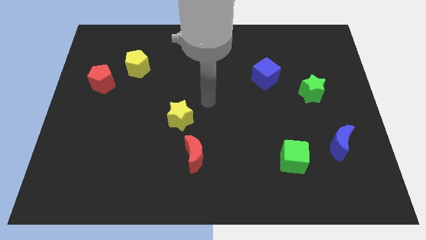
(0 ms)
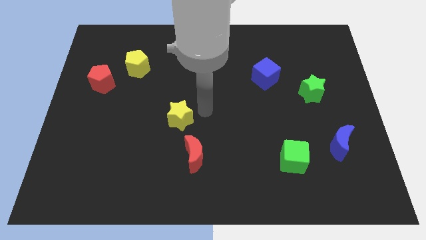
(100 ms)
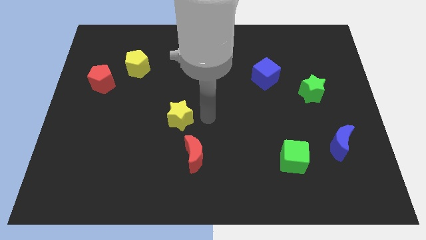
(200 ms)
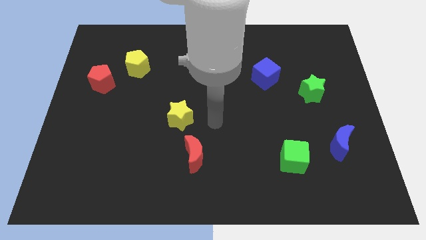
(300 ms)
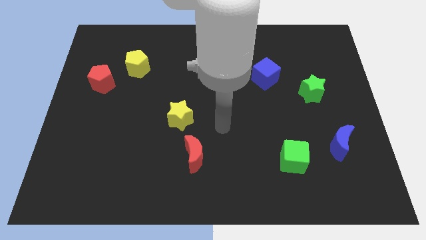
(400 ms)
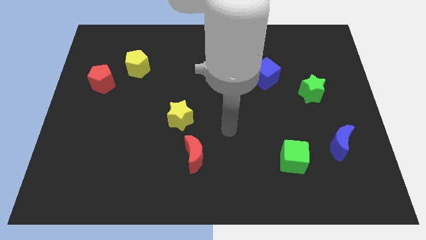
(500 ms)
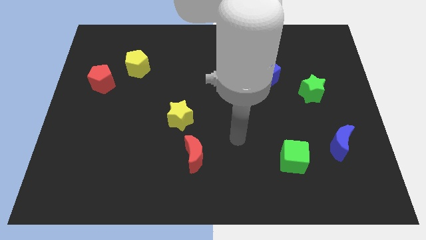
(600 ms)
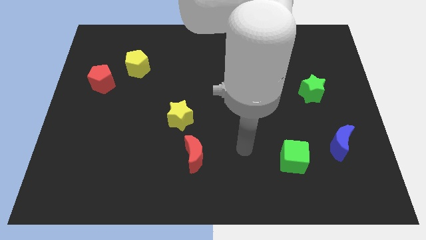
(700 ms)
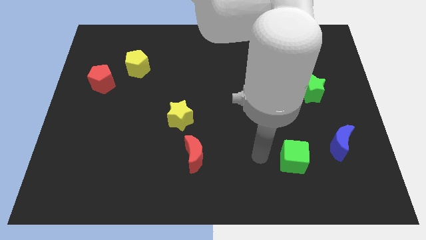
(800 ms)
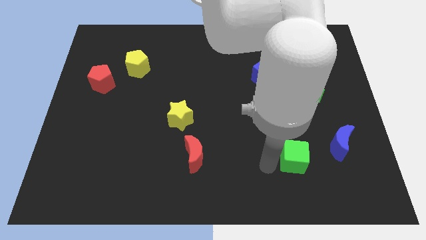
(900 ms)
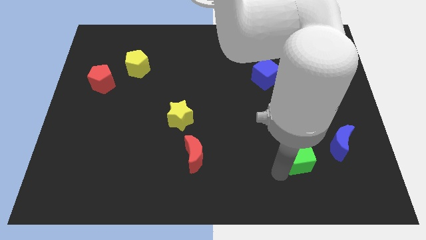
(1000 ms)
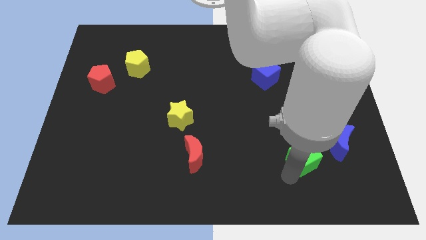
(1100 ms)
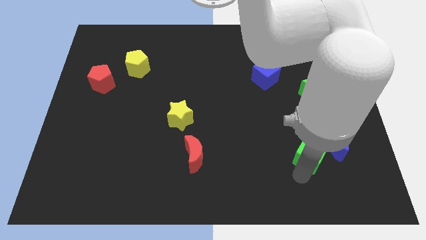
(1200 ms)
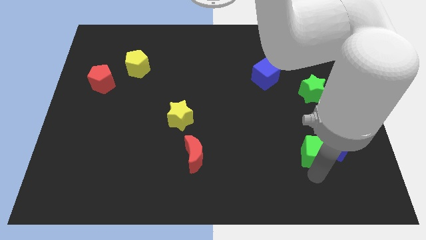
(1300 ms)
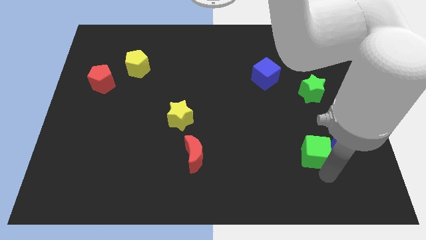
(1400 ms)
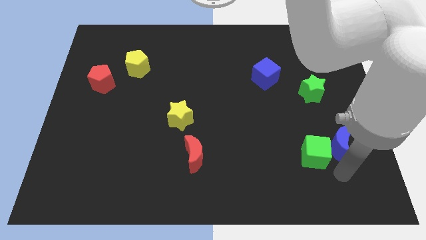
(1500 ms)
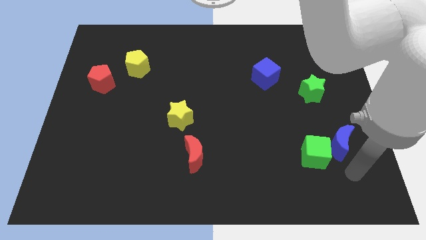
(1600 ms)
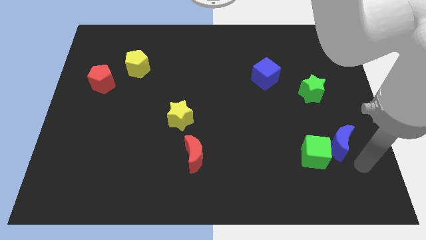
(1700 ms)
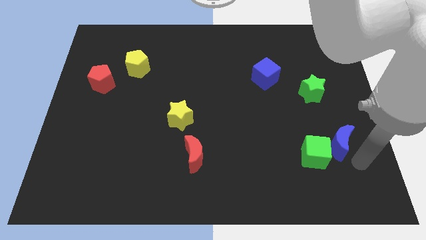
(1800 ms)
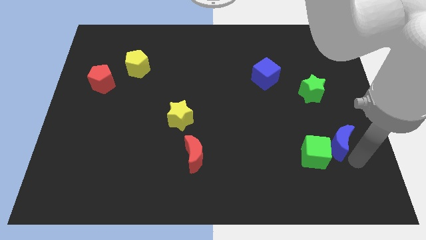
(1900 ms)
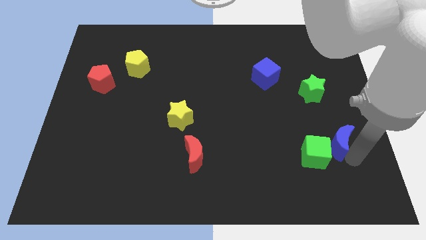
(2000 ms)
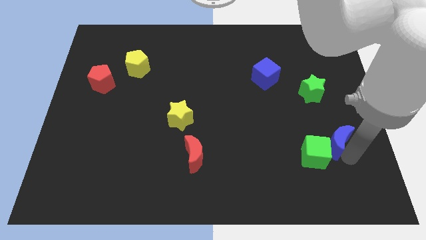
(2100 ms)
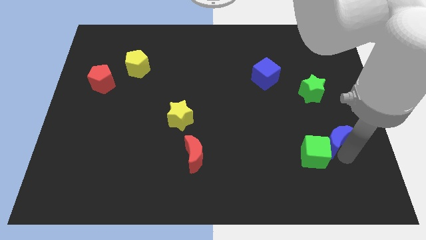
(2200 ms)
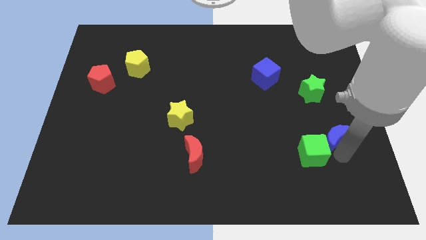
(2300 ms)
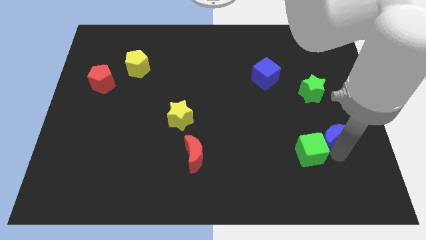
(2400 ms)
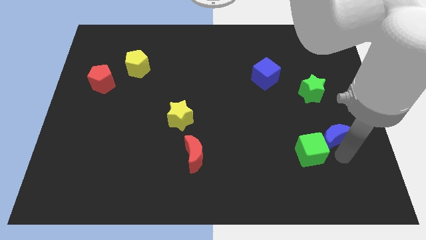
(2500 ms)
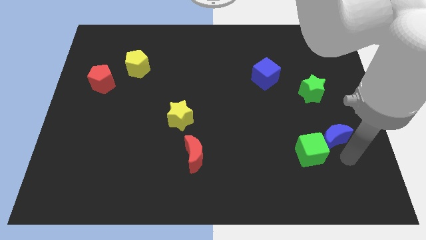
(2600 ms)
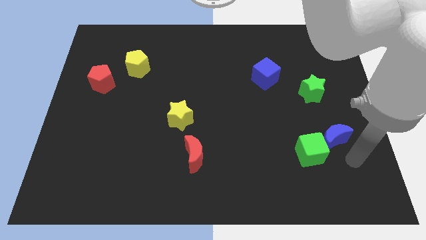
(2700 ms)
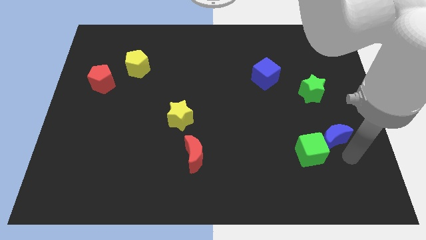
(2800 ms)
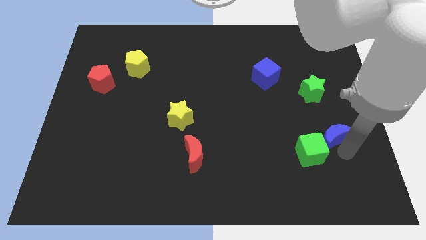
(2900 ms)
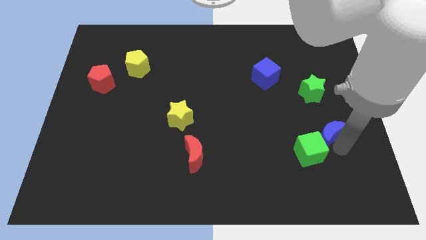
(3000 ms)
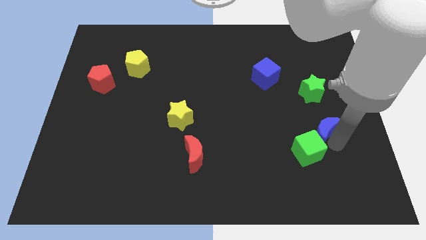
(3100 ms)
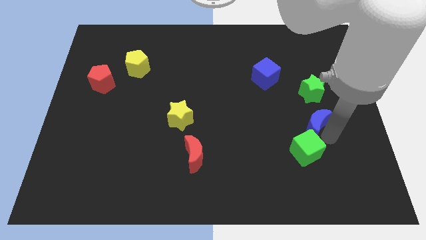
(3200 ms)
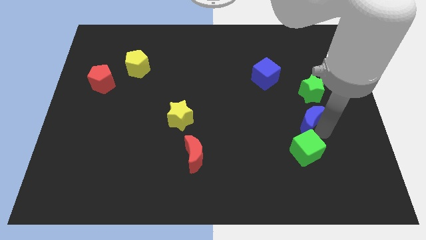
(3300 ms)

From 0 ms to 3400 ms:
move the blue moon slightly up and then to the left

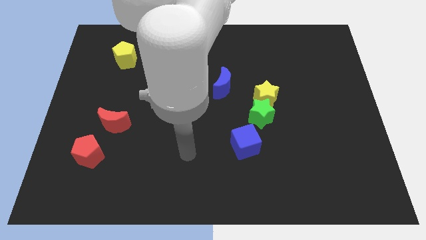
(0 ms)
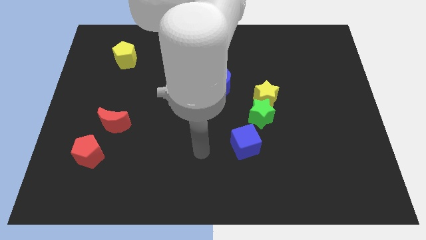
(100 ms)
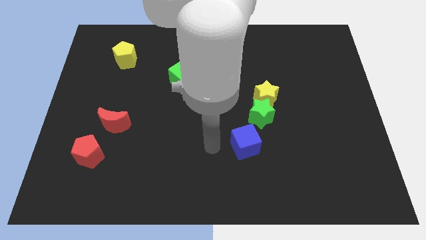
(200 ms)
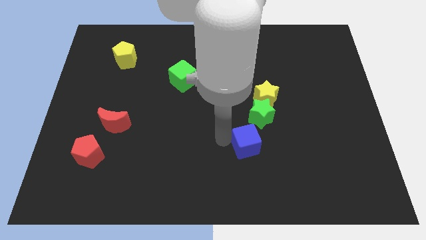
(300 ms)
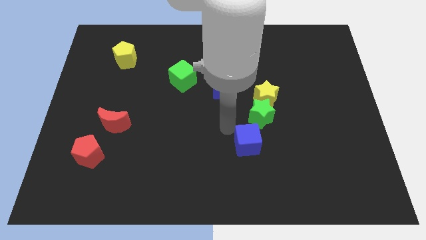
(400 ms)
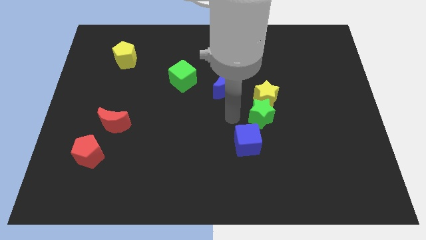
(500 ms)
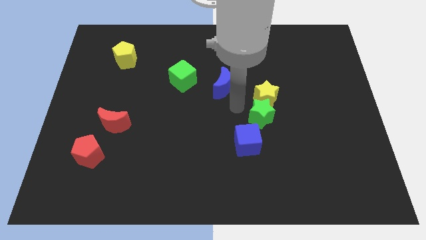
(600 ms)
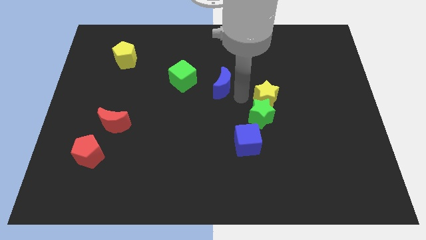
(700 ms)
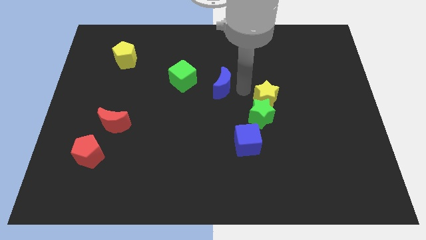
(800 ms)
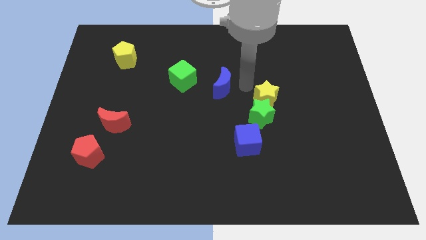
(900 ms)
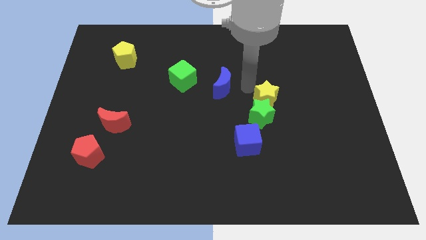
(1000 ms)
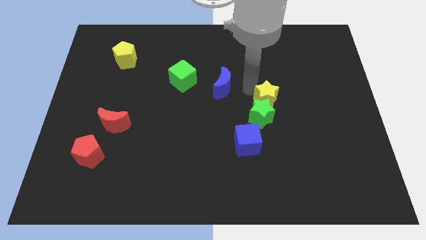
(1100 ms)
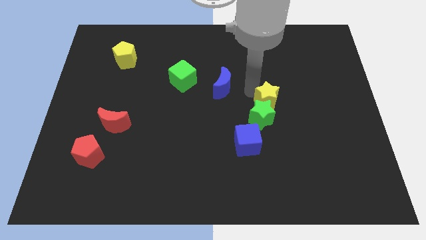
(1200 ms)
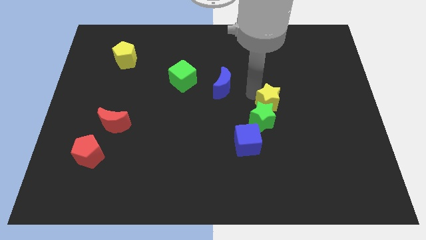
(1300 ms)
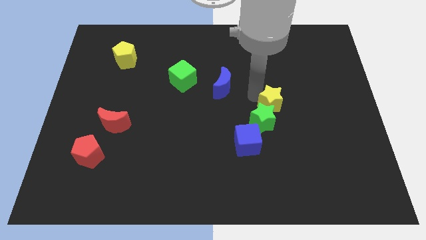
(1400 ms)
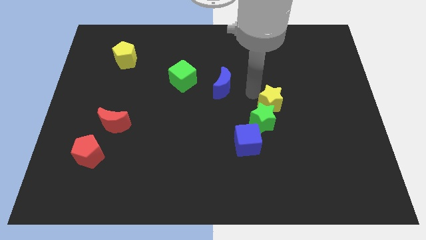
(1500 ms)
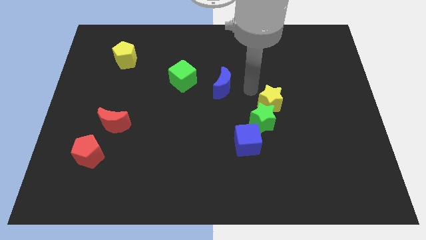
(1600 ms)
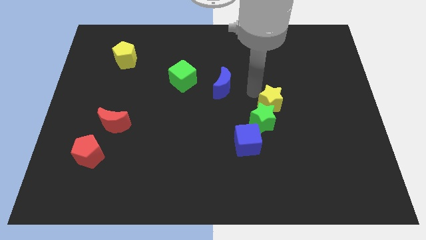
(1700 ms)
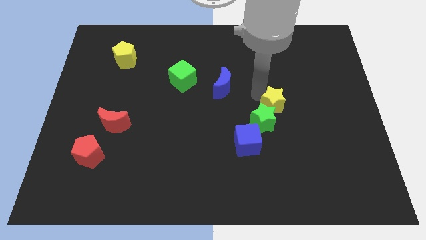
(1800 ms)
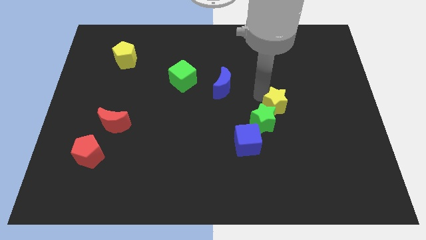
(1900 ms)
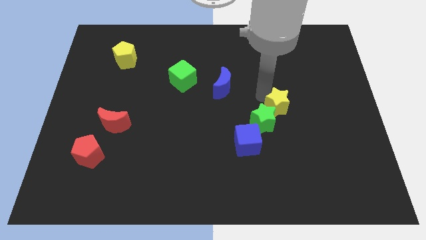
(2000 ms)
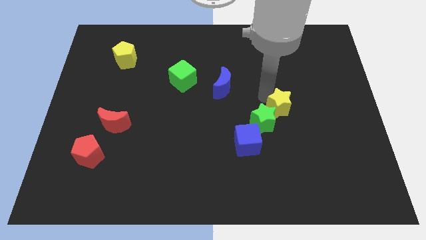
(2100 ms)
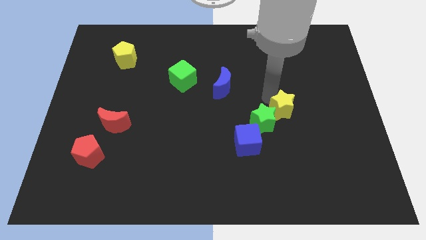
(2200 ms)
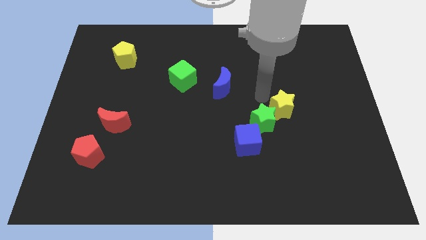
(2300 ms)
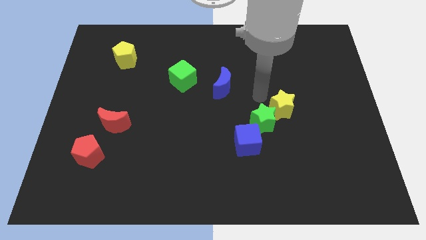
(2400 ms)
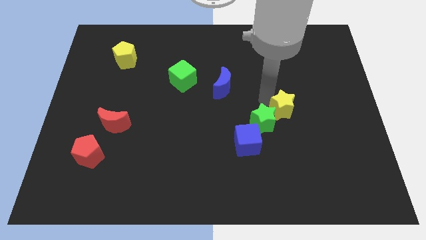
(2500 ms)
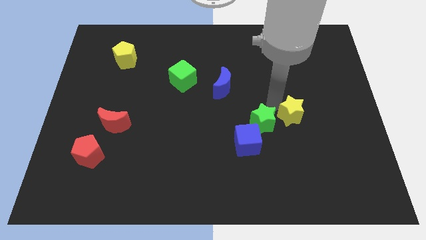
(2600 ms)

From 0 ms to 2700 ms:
move the yellow star a little downwards and right

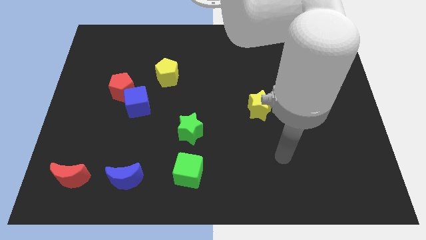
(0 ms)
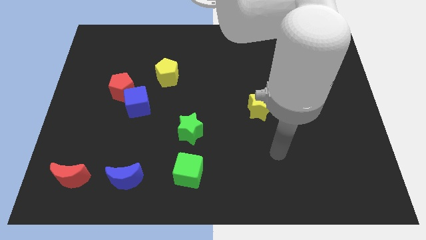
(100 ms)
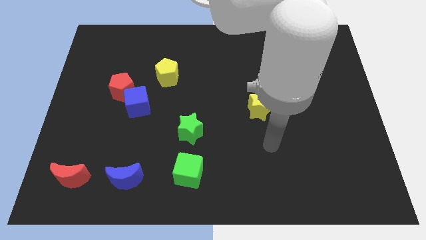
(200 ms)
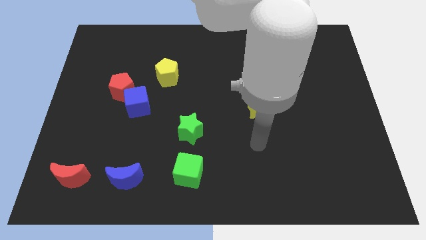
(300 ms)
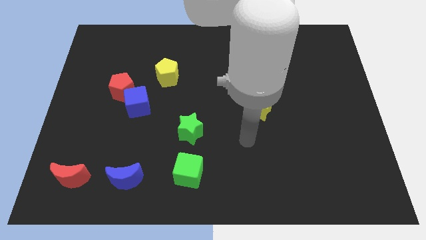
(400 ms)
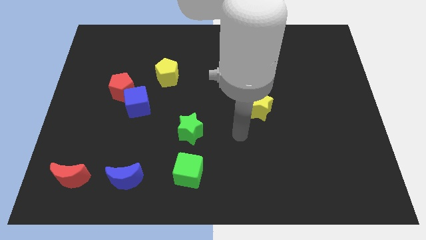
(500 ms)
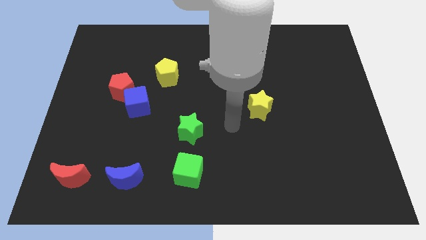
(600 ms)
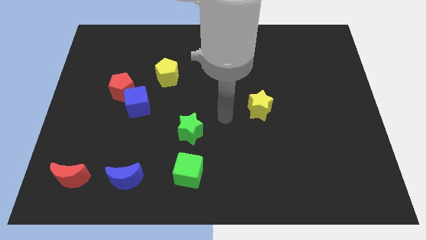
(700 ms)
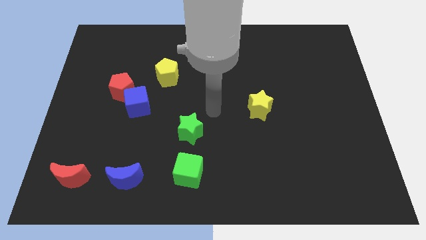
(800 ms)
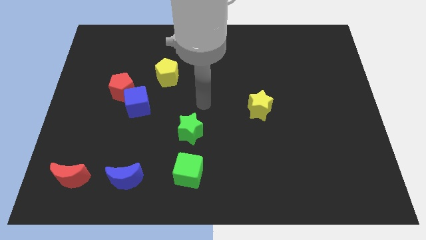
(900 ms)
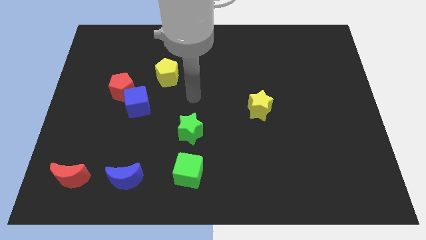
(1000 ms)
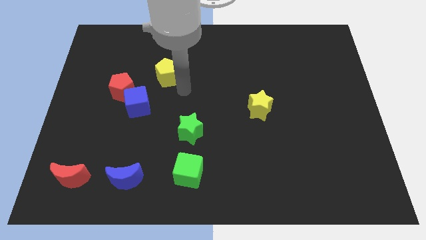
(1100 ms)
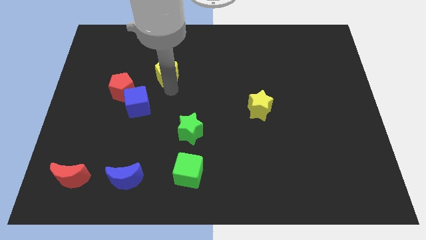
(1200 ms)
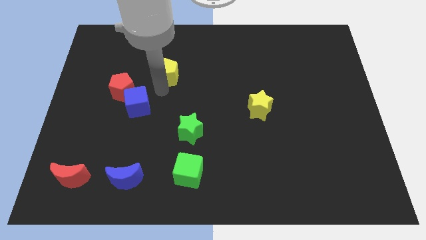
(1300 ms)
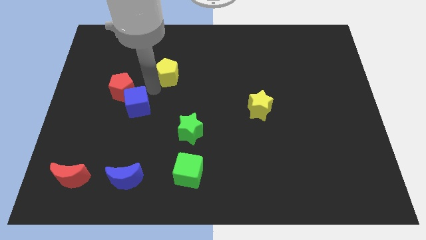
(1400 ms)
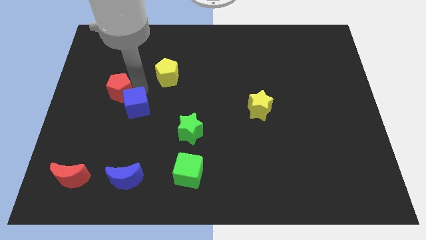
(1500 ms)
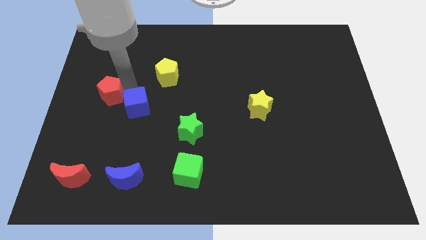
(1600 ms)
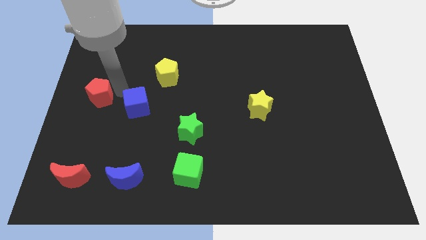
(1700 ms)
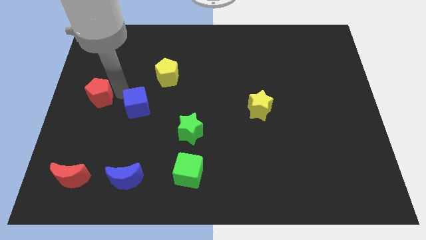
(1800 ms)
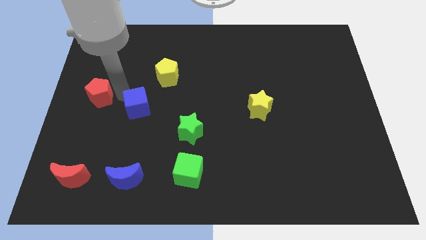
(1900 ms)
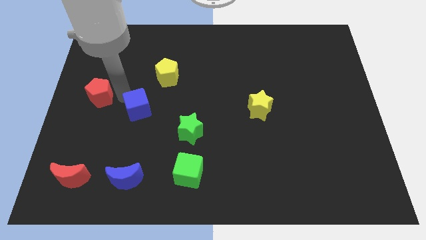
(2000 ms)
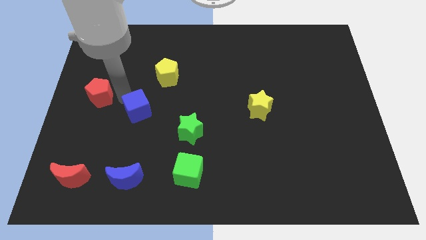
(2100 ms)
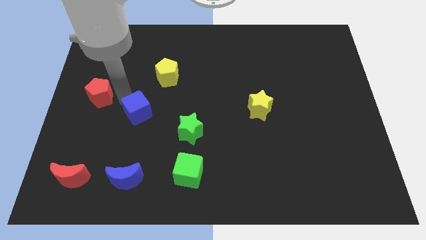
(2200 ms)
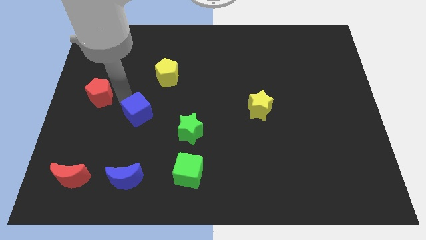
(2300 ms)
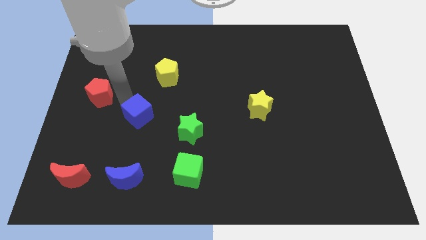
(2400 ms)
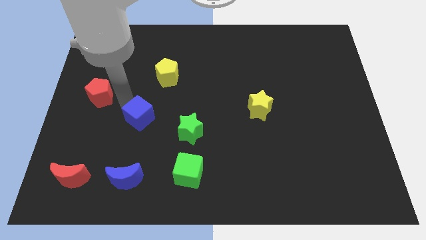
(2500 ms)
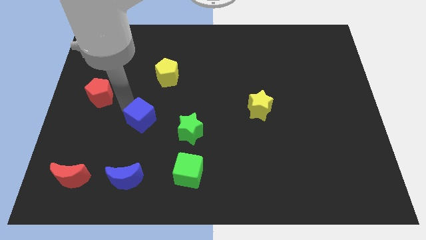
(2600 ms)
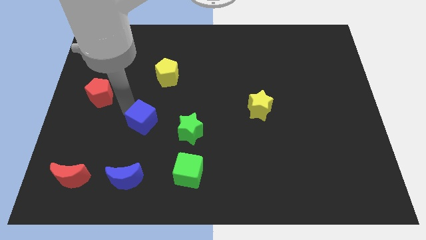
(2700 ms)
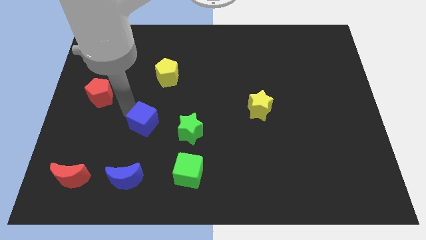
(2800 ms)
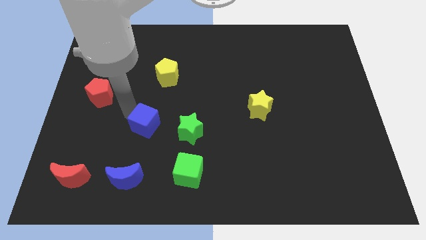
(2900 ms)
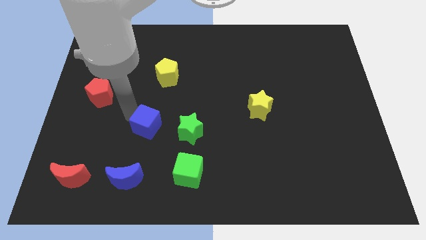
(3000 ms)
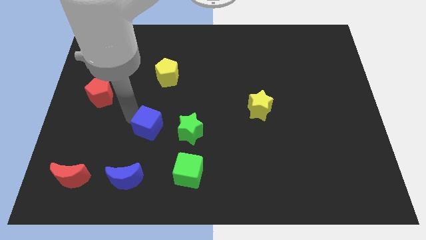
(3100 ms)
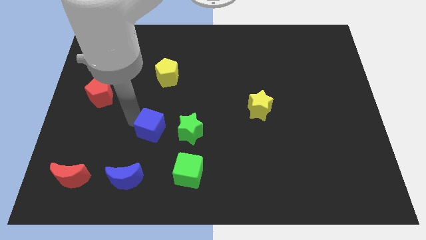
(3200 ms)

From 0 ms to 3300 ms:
slide the blue cube a little bit diagonally down and to the right
